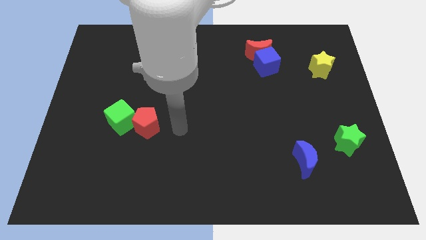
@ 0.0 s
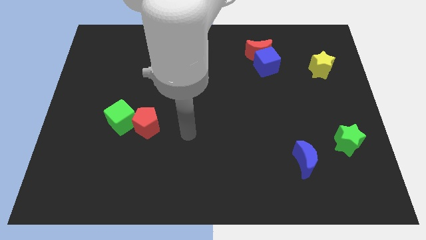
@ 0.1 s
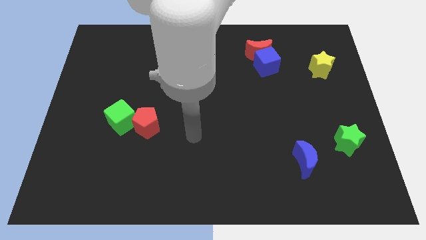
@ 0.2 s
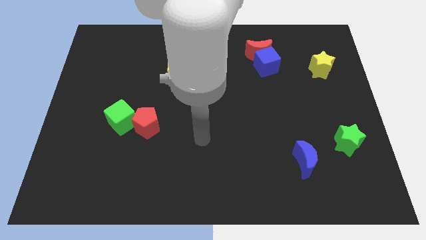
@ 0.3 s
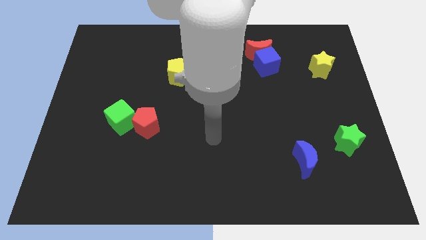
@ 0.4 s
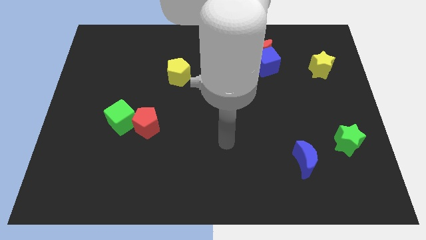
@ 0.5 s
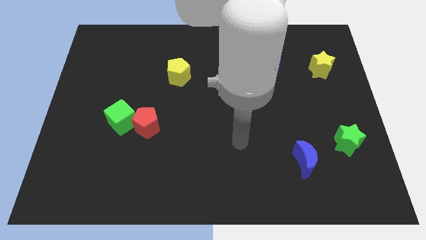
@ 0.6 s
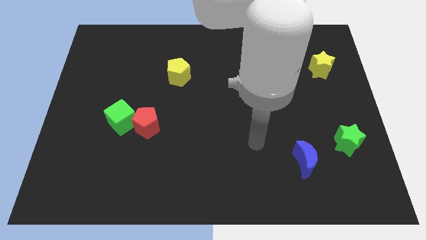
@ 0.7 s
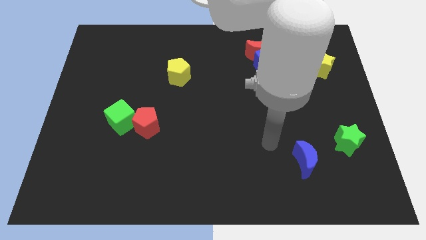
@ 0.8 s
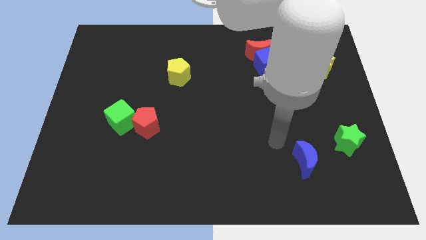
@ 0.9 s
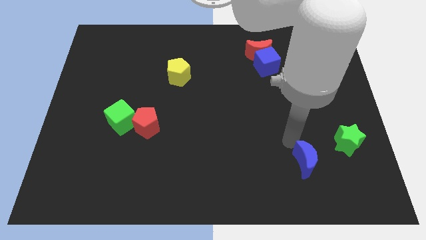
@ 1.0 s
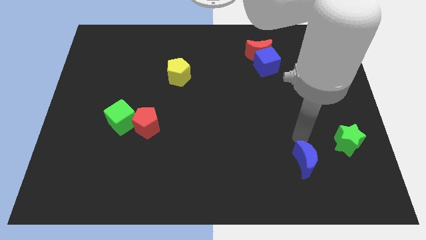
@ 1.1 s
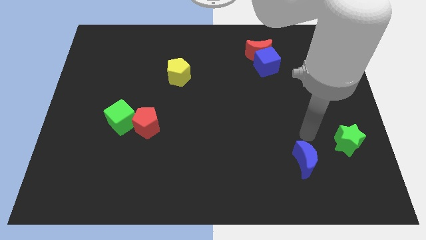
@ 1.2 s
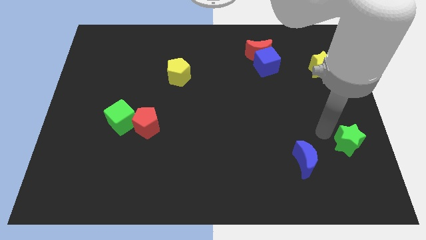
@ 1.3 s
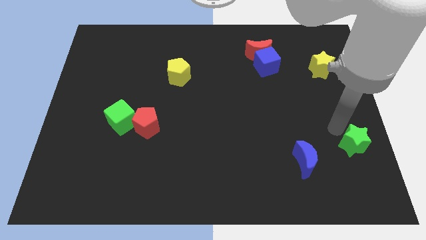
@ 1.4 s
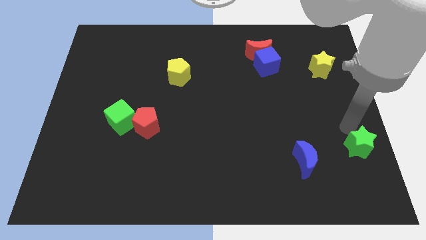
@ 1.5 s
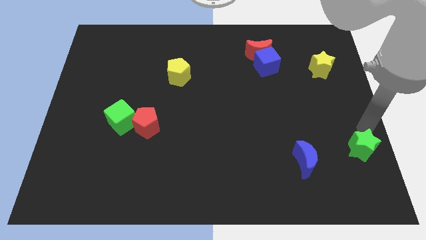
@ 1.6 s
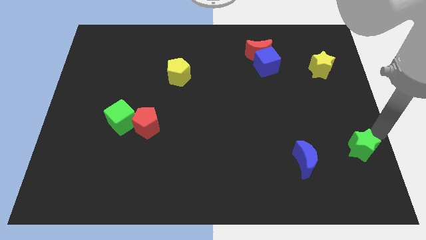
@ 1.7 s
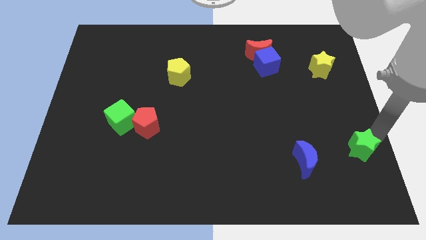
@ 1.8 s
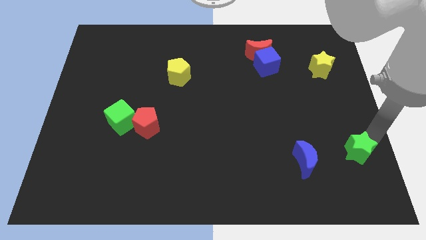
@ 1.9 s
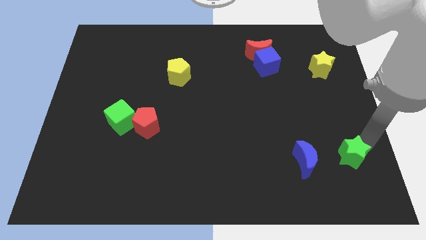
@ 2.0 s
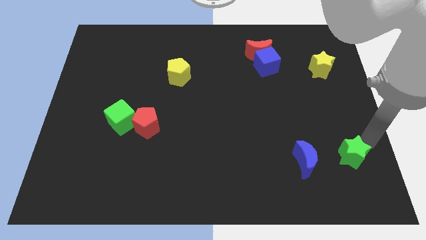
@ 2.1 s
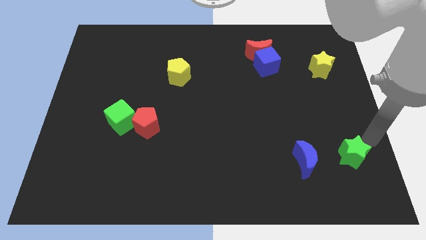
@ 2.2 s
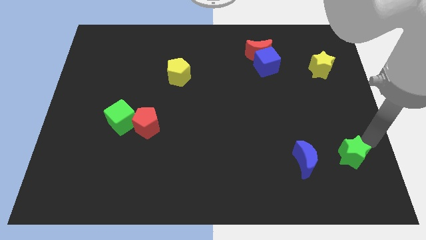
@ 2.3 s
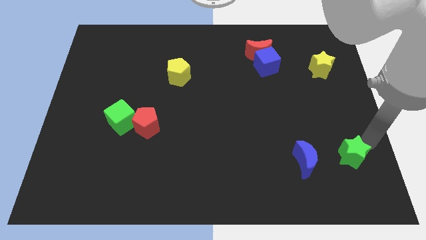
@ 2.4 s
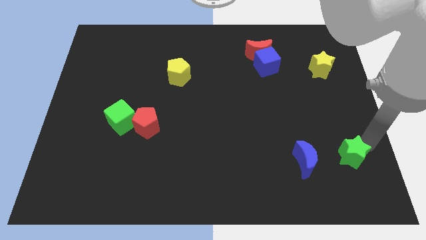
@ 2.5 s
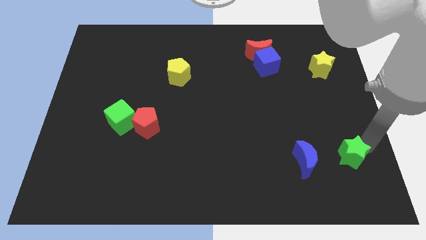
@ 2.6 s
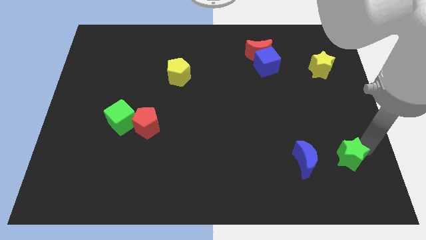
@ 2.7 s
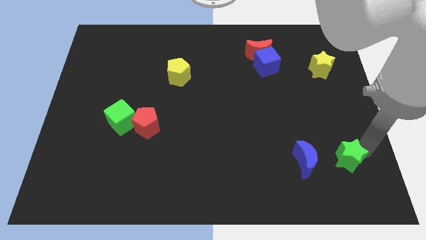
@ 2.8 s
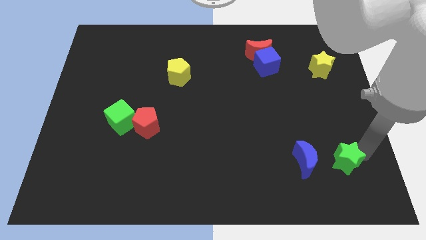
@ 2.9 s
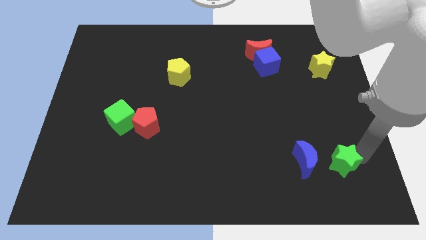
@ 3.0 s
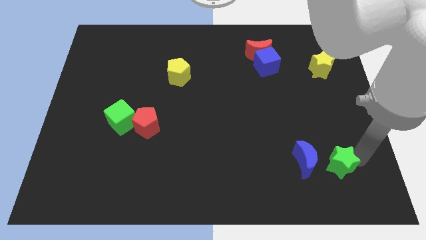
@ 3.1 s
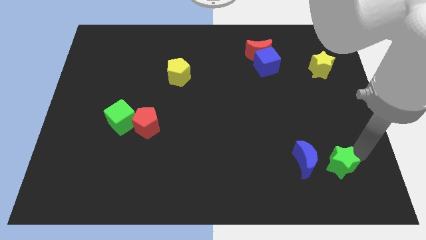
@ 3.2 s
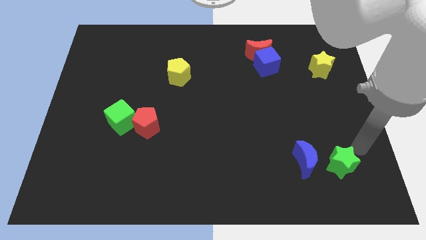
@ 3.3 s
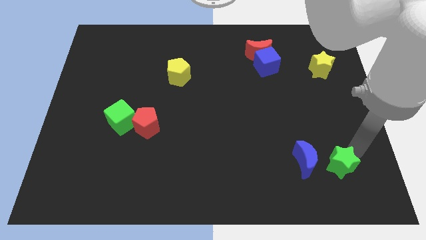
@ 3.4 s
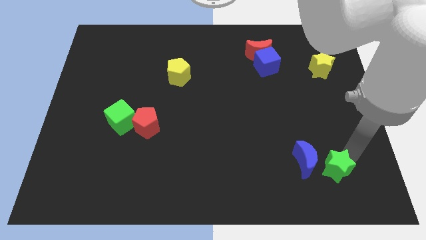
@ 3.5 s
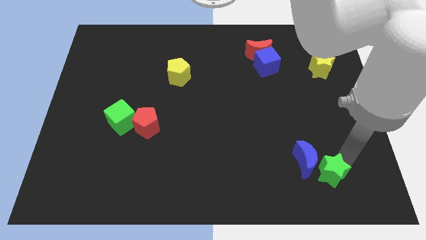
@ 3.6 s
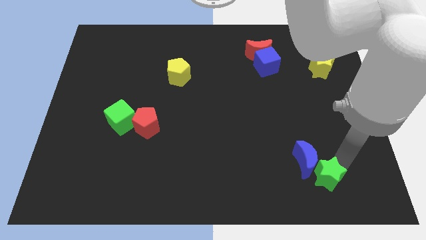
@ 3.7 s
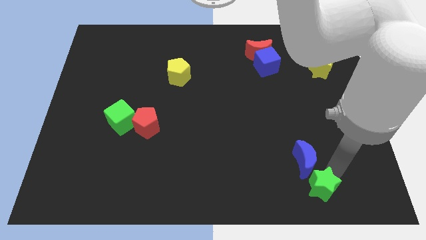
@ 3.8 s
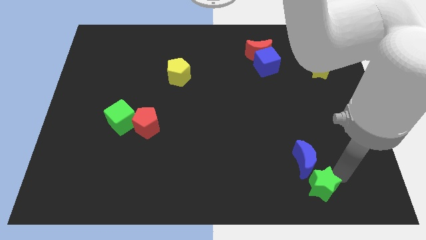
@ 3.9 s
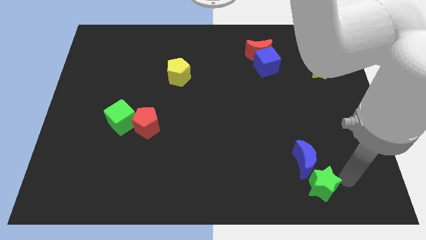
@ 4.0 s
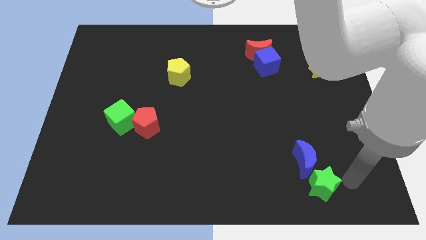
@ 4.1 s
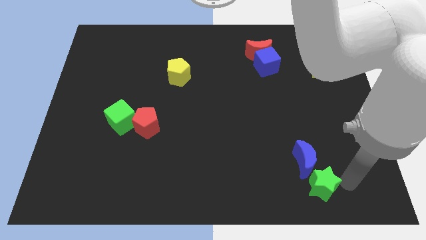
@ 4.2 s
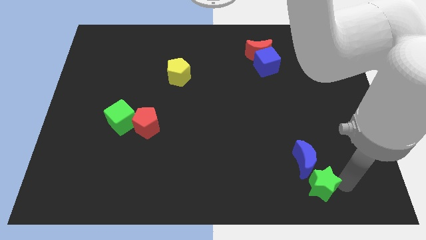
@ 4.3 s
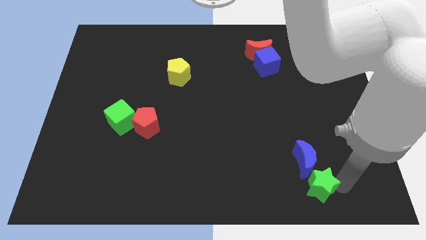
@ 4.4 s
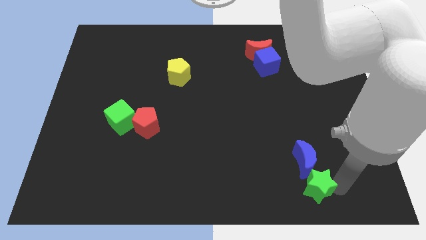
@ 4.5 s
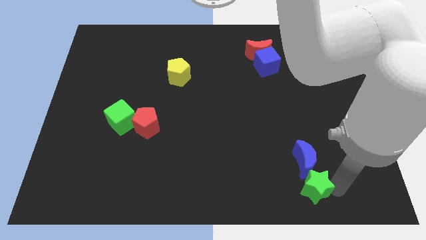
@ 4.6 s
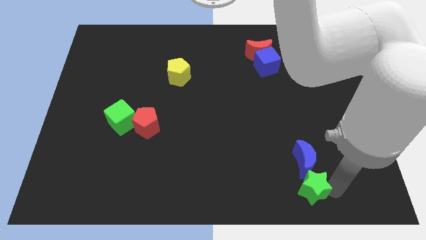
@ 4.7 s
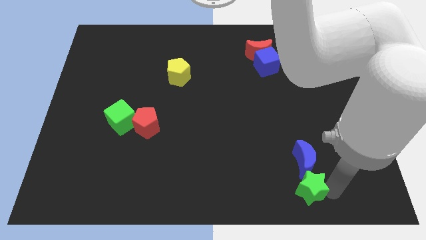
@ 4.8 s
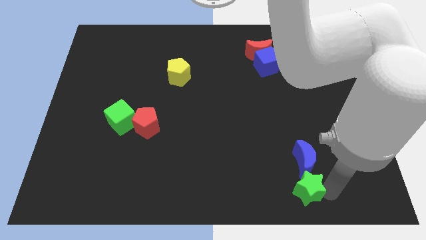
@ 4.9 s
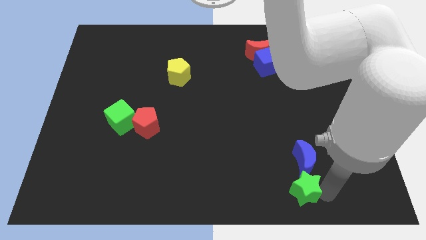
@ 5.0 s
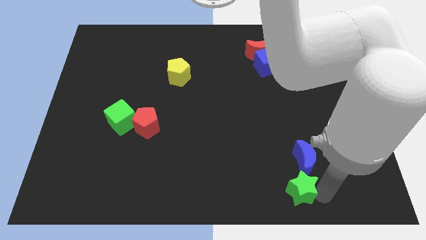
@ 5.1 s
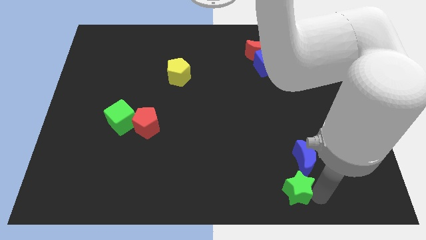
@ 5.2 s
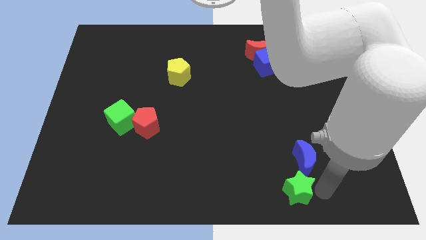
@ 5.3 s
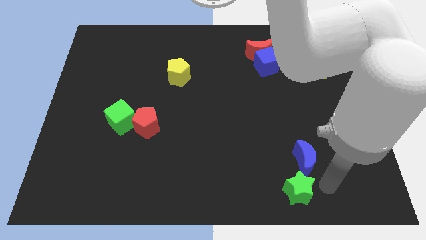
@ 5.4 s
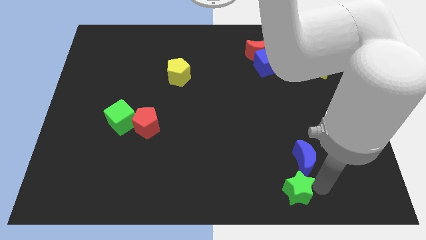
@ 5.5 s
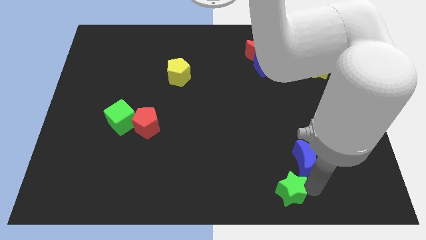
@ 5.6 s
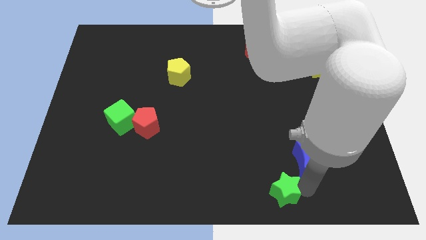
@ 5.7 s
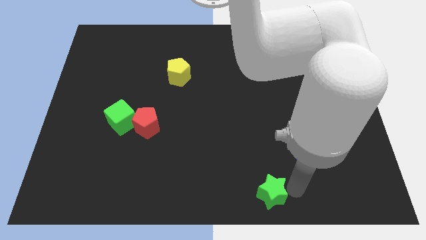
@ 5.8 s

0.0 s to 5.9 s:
push the green star to the bottom

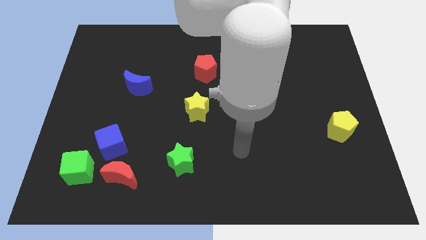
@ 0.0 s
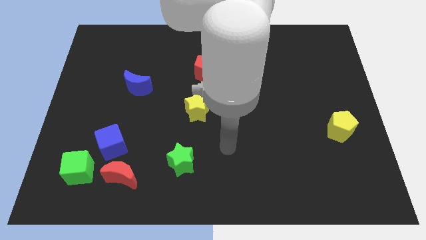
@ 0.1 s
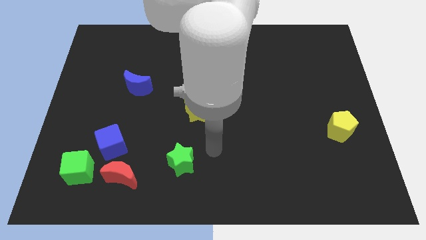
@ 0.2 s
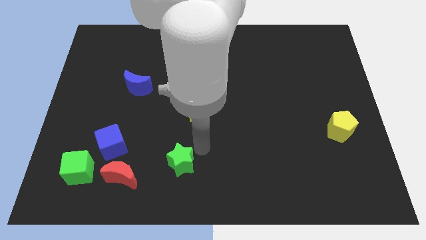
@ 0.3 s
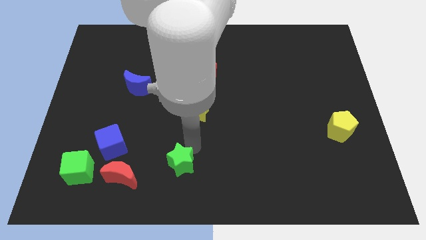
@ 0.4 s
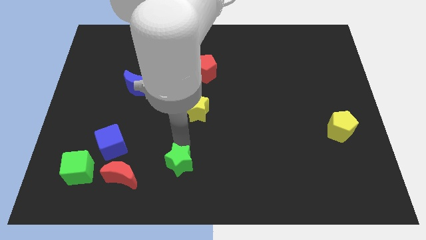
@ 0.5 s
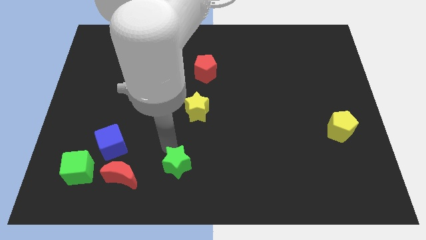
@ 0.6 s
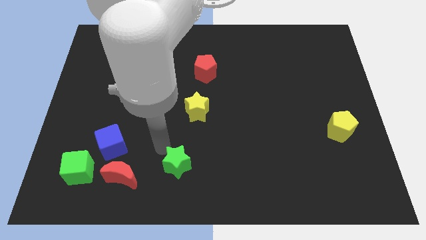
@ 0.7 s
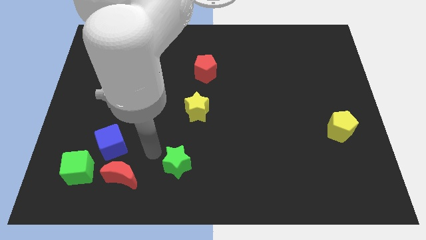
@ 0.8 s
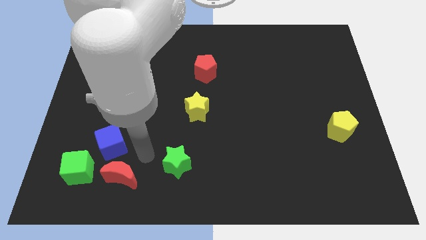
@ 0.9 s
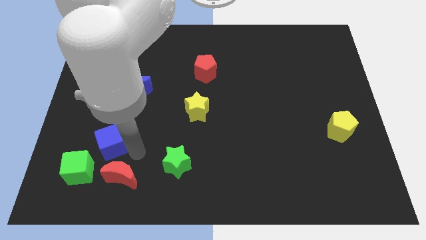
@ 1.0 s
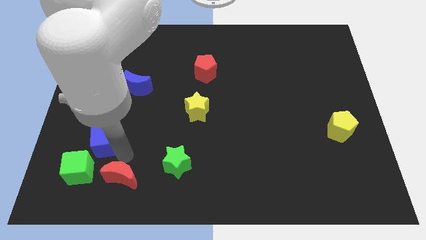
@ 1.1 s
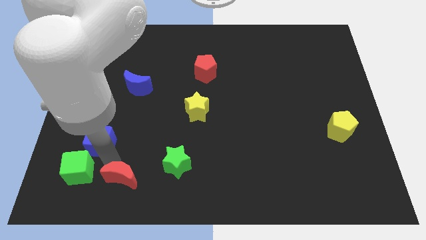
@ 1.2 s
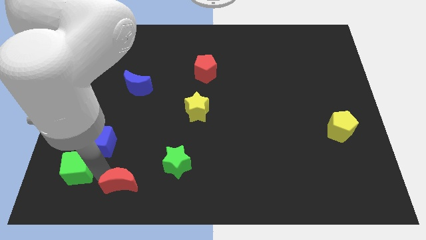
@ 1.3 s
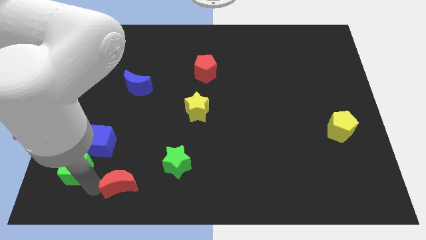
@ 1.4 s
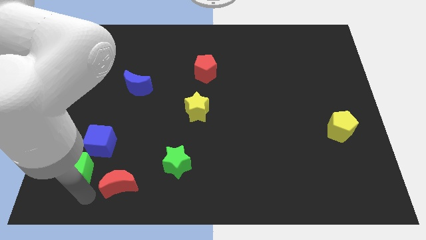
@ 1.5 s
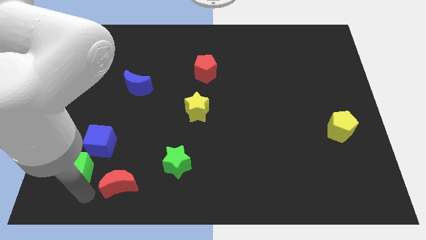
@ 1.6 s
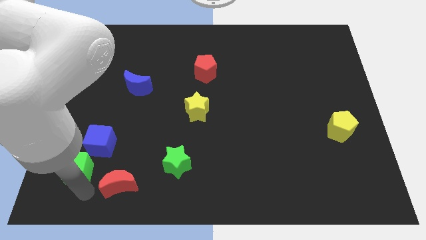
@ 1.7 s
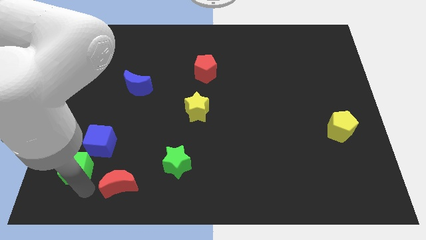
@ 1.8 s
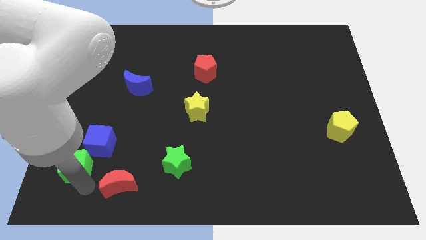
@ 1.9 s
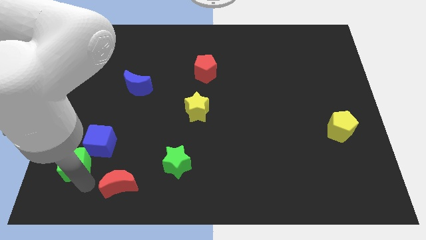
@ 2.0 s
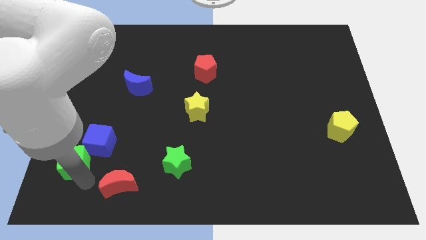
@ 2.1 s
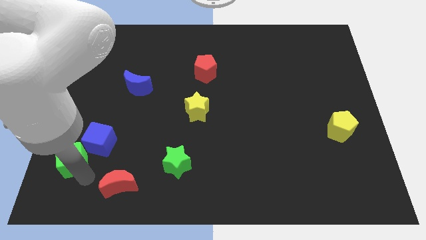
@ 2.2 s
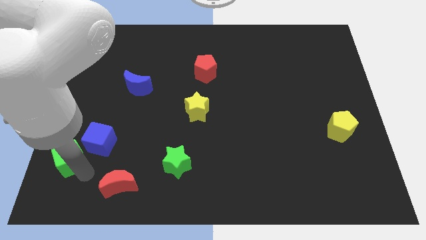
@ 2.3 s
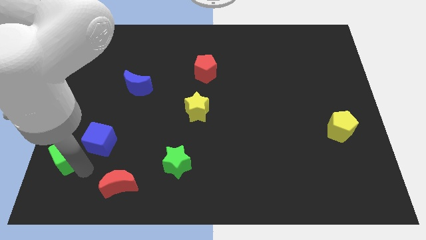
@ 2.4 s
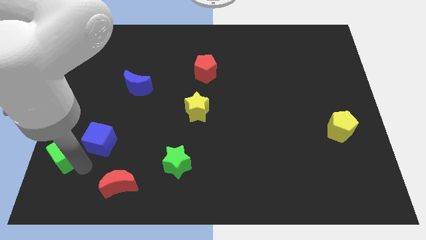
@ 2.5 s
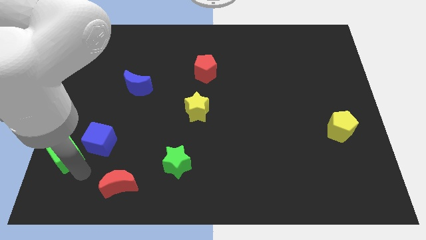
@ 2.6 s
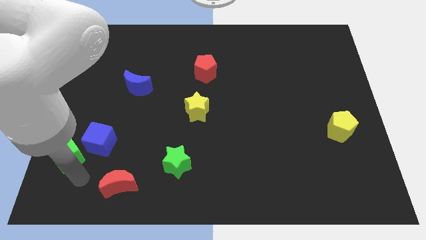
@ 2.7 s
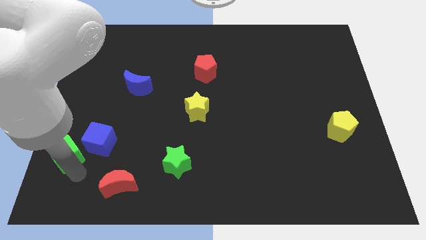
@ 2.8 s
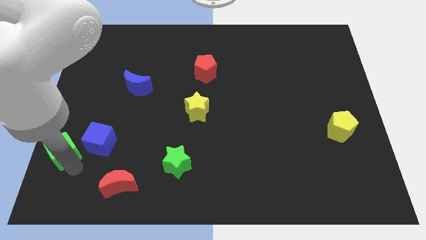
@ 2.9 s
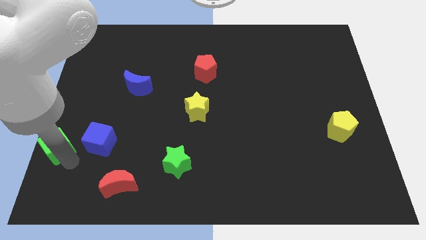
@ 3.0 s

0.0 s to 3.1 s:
put the green cube to the left side of the board
